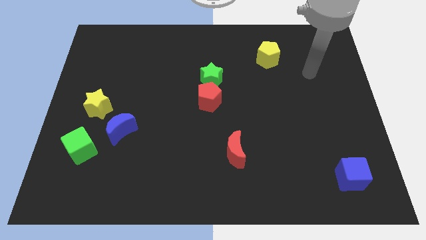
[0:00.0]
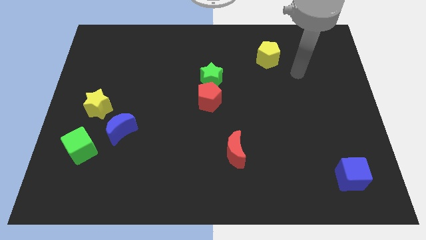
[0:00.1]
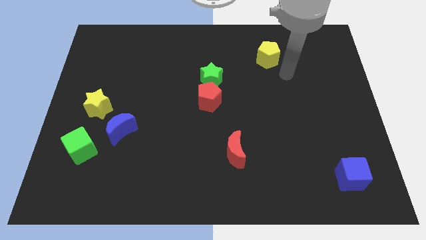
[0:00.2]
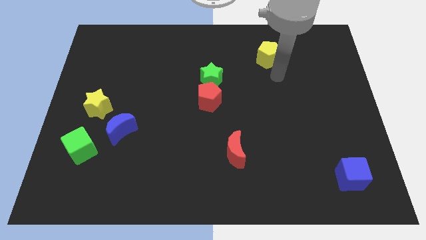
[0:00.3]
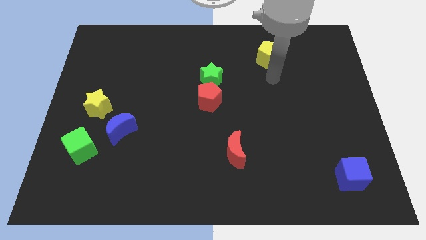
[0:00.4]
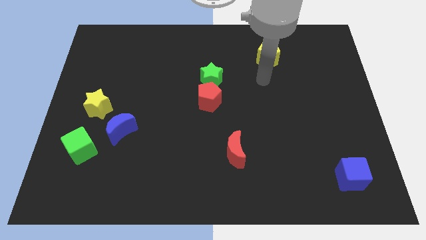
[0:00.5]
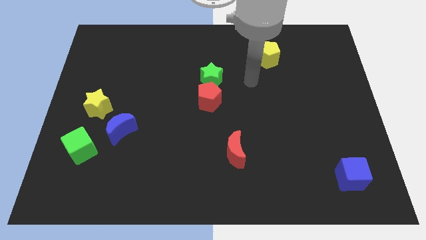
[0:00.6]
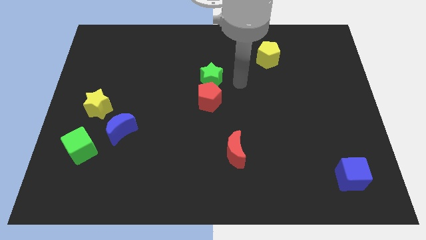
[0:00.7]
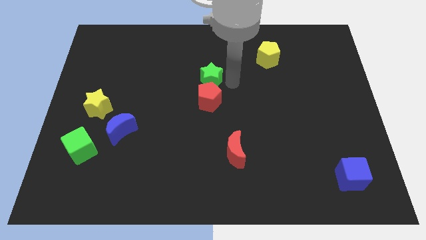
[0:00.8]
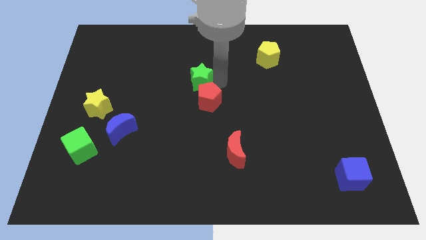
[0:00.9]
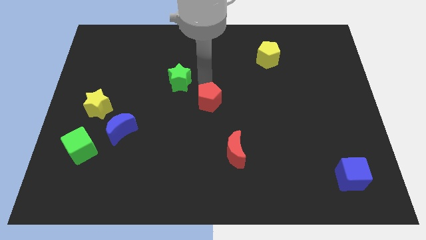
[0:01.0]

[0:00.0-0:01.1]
pull the red pentagon apart from the green star

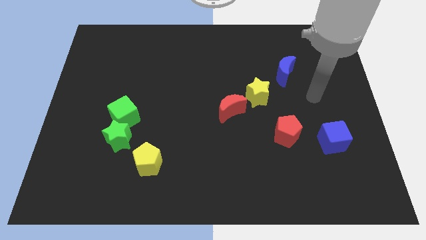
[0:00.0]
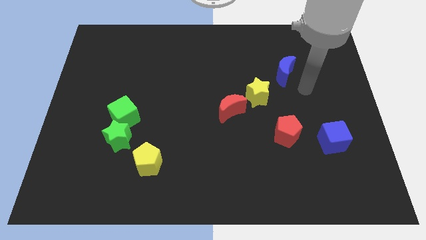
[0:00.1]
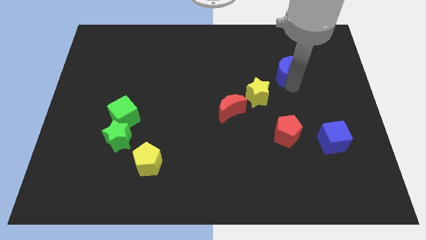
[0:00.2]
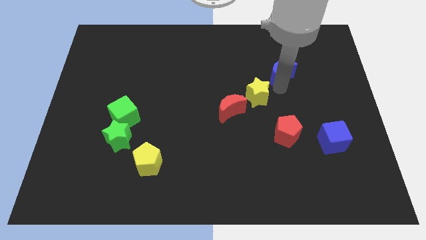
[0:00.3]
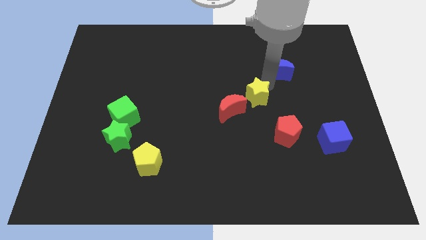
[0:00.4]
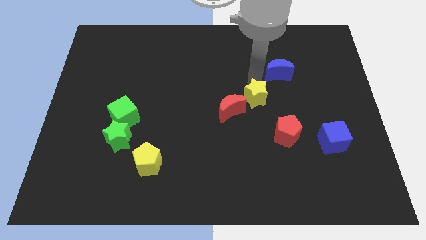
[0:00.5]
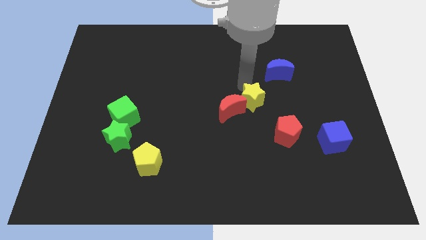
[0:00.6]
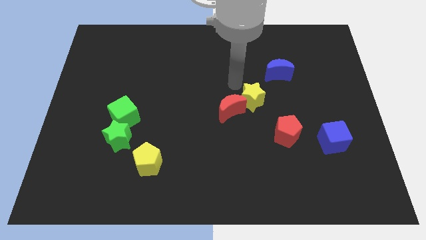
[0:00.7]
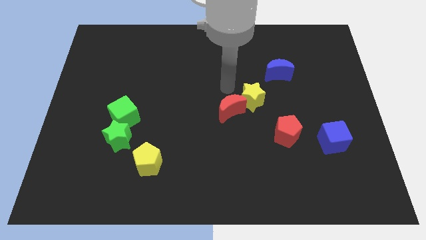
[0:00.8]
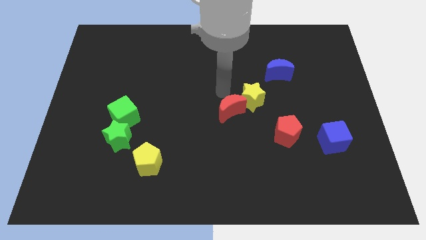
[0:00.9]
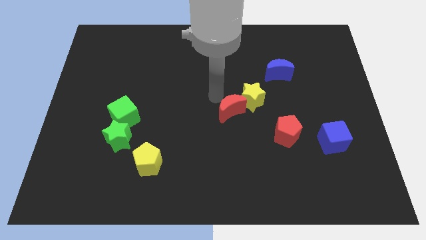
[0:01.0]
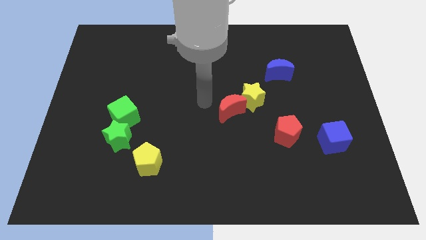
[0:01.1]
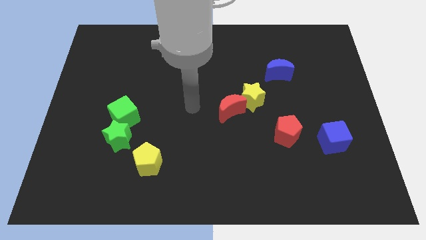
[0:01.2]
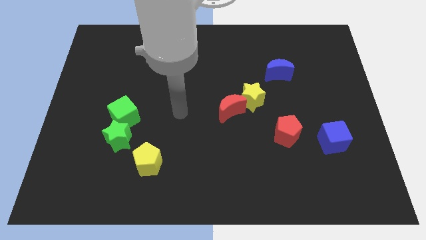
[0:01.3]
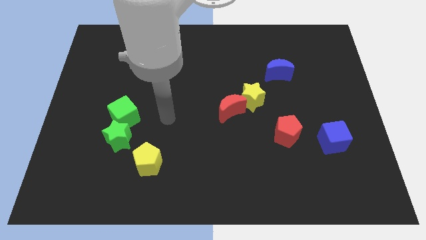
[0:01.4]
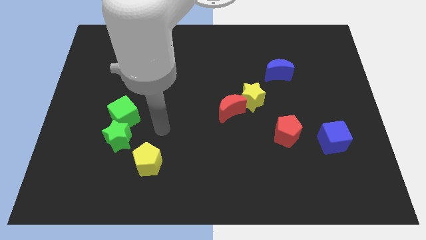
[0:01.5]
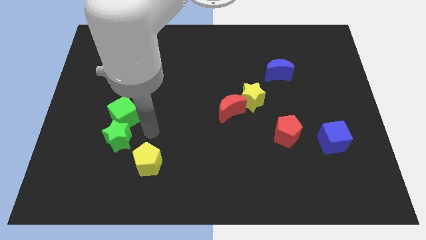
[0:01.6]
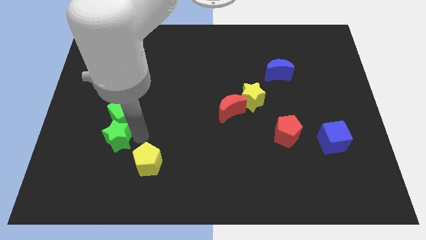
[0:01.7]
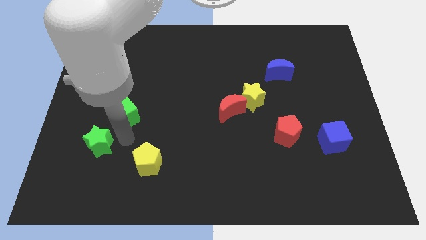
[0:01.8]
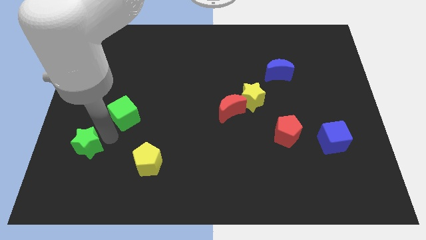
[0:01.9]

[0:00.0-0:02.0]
pull the green cube apart from the green star

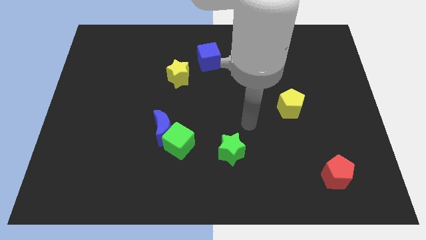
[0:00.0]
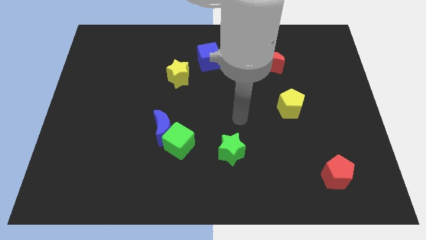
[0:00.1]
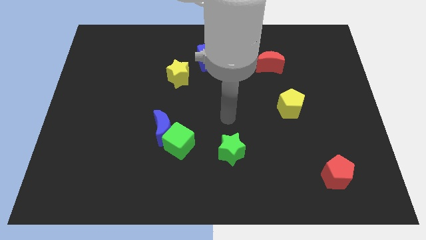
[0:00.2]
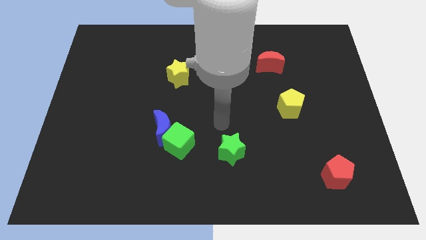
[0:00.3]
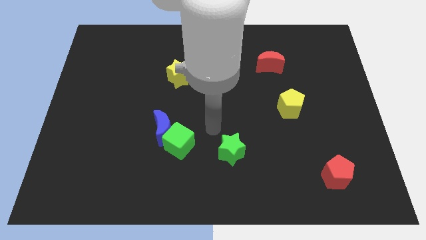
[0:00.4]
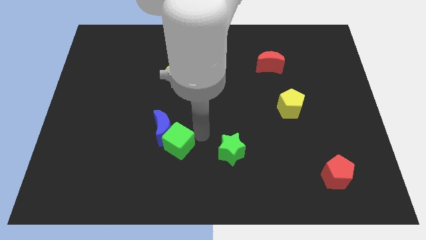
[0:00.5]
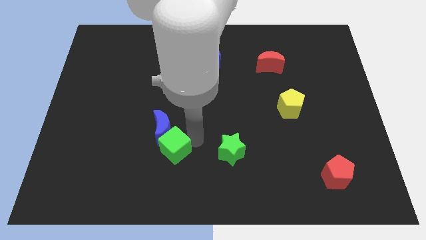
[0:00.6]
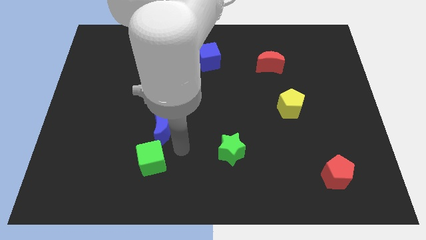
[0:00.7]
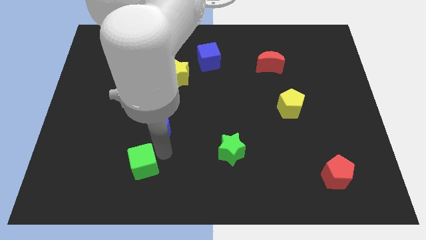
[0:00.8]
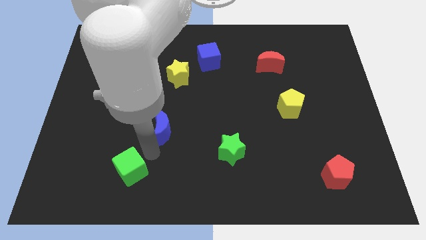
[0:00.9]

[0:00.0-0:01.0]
pull the blue moon apart from the green cube

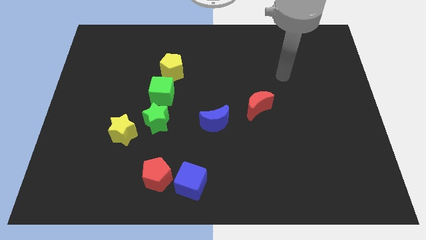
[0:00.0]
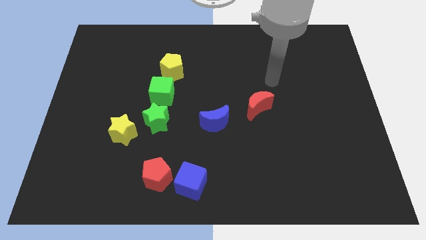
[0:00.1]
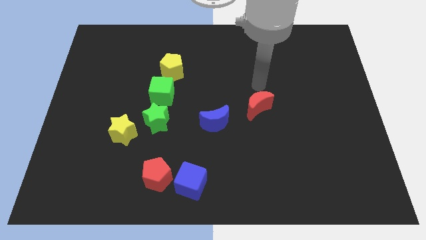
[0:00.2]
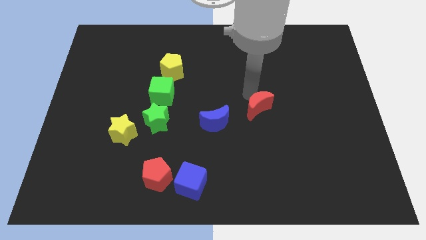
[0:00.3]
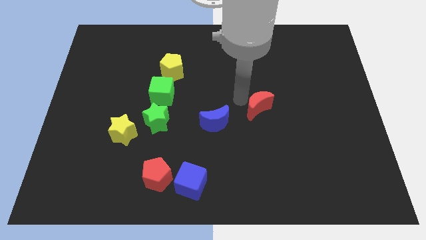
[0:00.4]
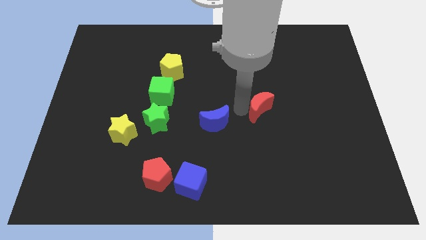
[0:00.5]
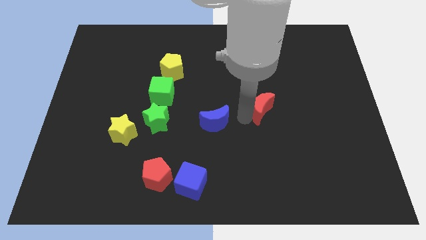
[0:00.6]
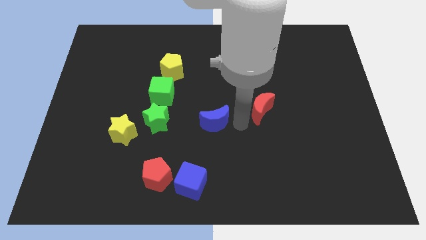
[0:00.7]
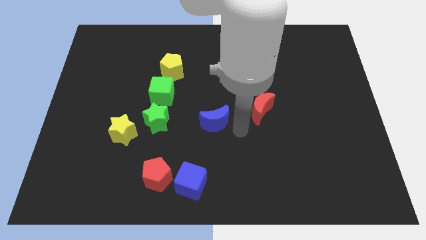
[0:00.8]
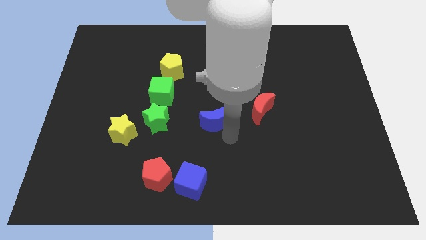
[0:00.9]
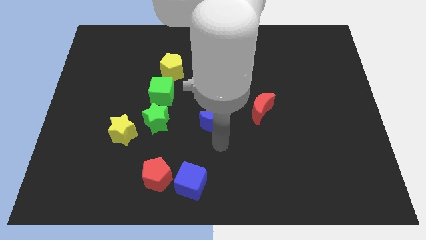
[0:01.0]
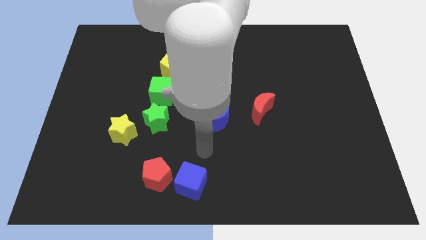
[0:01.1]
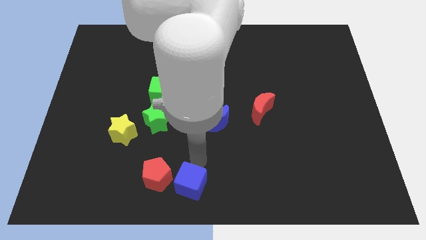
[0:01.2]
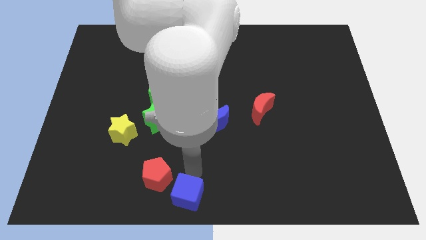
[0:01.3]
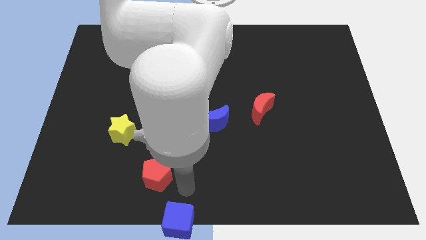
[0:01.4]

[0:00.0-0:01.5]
separate the red pentagon from the blue cube

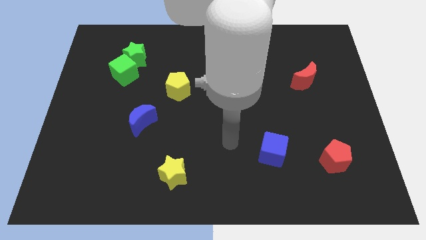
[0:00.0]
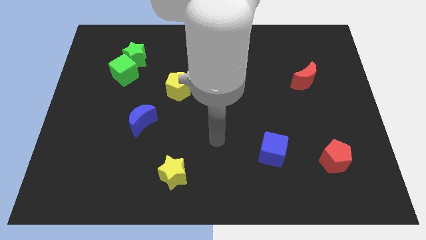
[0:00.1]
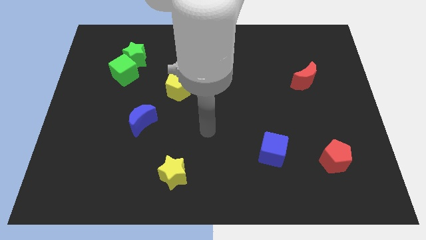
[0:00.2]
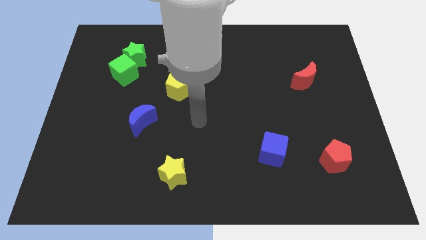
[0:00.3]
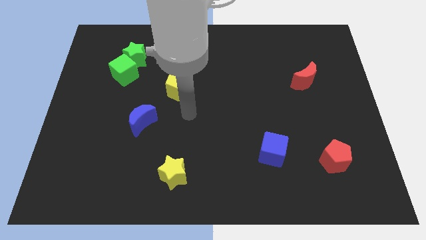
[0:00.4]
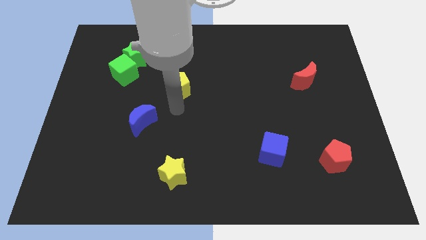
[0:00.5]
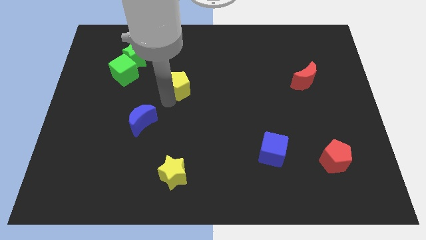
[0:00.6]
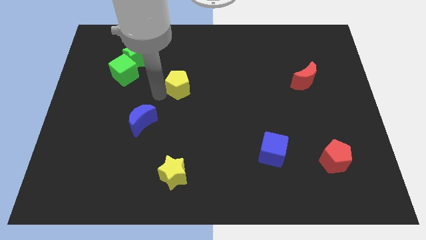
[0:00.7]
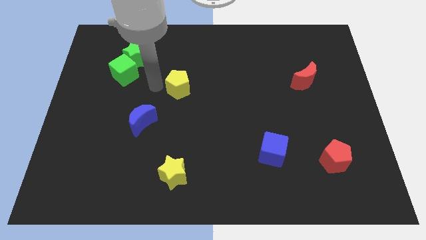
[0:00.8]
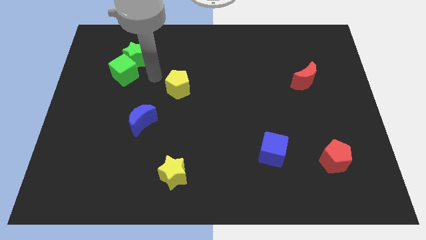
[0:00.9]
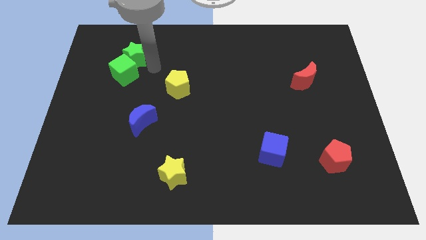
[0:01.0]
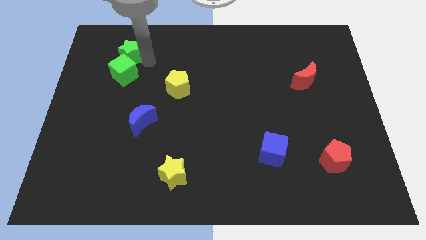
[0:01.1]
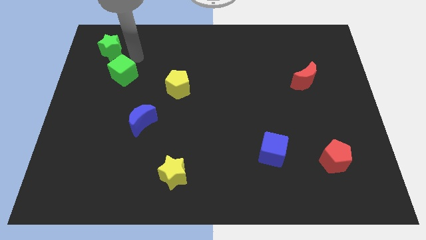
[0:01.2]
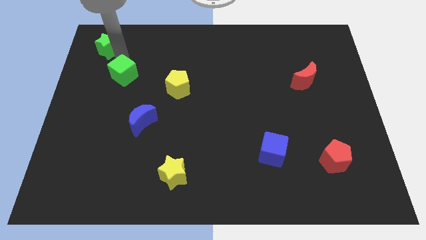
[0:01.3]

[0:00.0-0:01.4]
separate the green cube from the green star

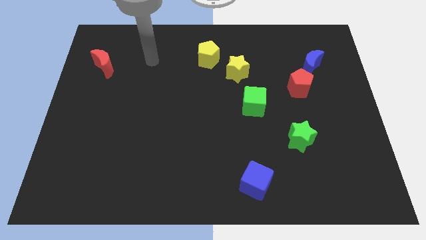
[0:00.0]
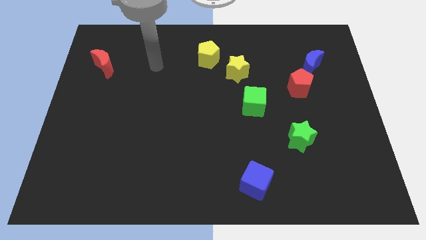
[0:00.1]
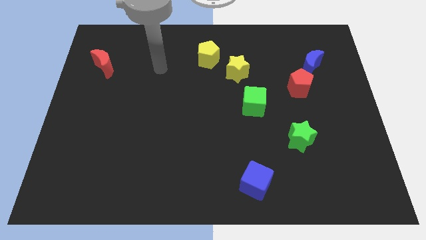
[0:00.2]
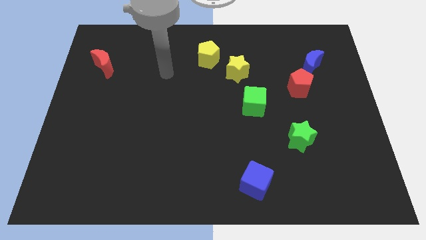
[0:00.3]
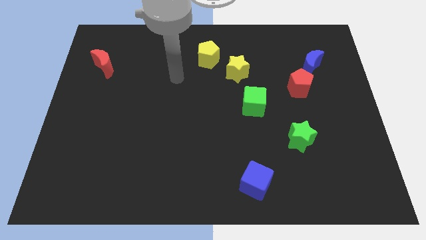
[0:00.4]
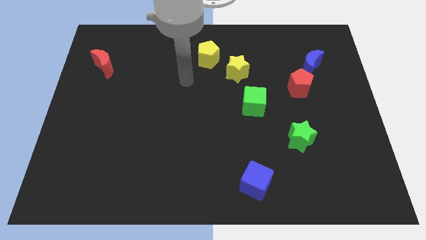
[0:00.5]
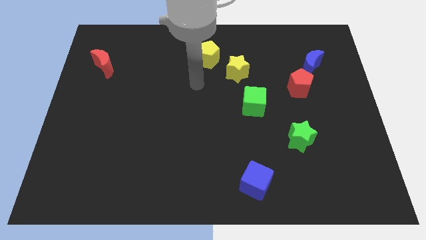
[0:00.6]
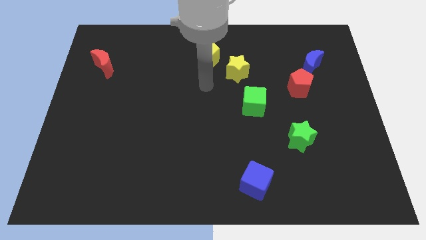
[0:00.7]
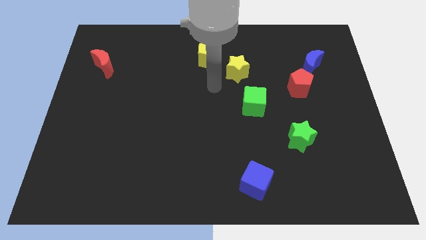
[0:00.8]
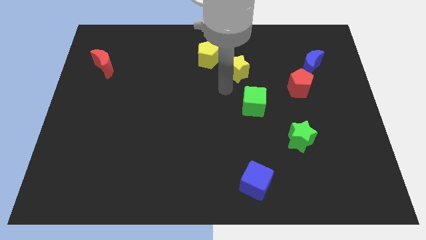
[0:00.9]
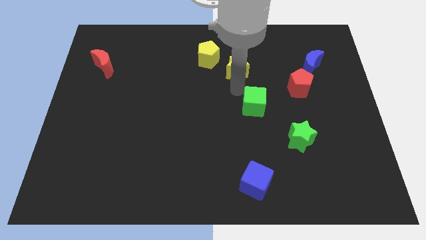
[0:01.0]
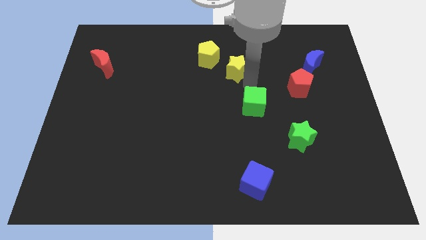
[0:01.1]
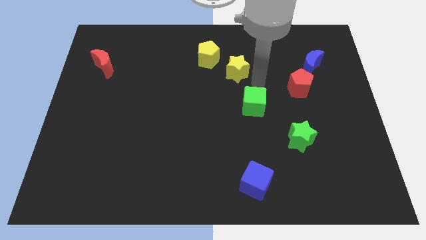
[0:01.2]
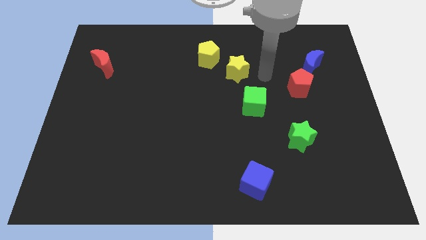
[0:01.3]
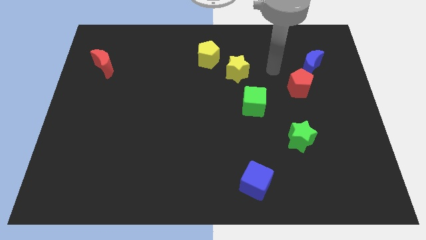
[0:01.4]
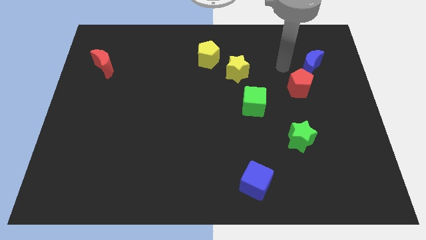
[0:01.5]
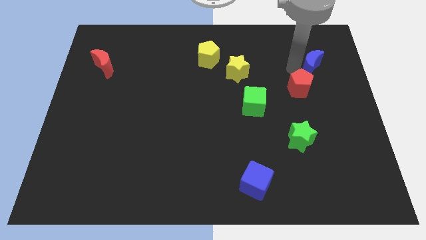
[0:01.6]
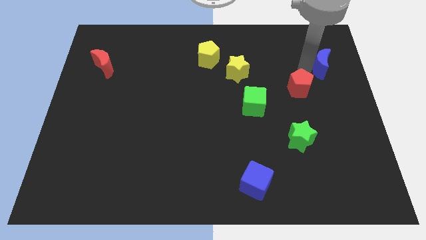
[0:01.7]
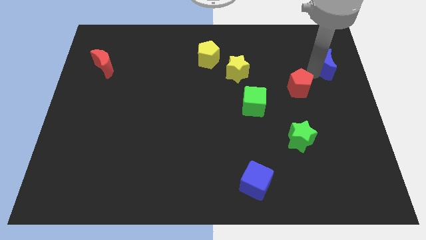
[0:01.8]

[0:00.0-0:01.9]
move the red pentagon away from the blue moon

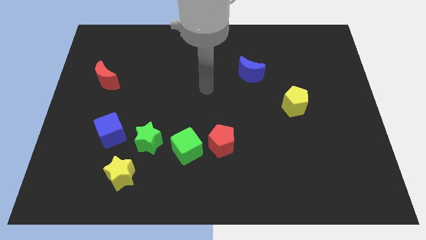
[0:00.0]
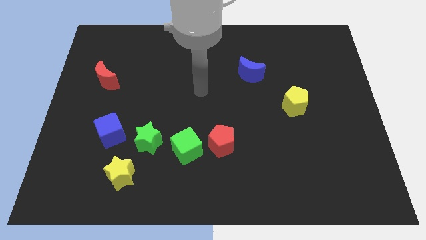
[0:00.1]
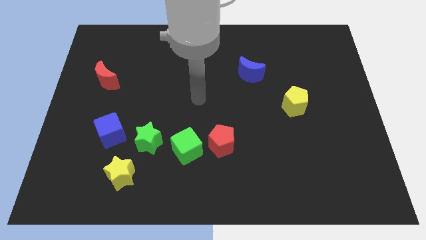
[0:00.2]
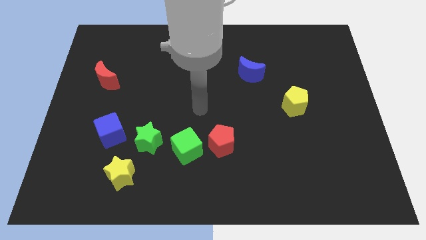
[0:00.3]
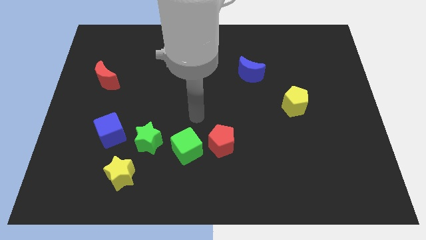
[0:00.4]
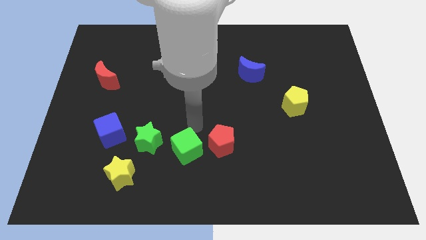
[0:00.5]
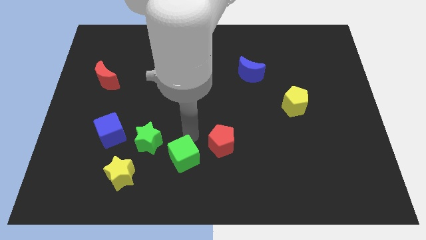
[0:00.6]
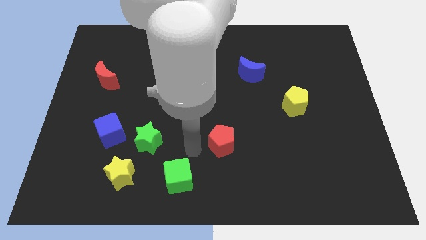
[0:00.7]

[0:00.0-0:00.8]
move the red pentagon away from the green cube
